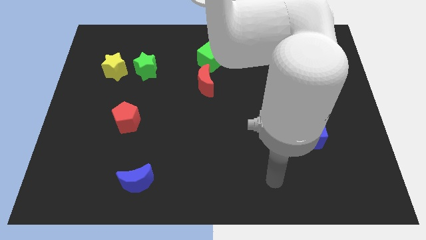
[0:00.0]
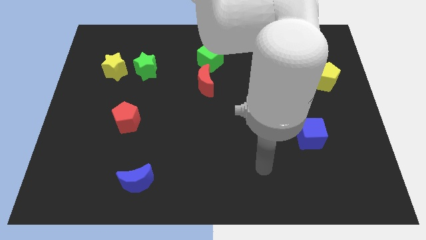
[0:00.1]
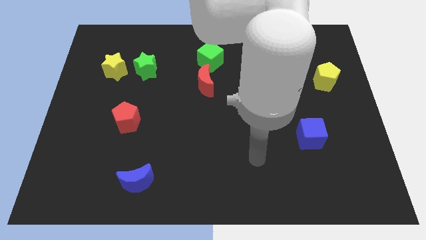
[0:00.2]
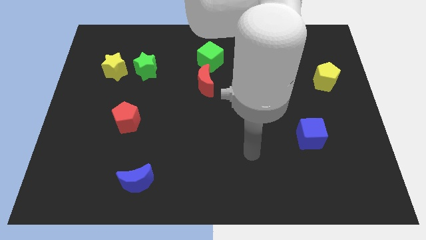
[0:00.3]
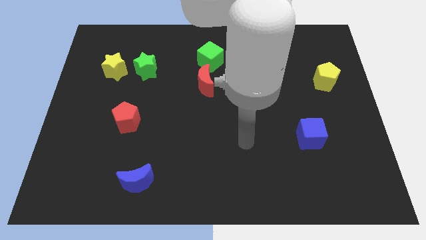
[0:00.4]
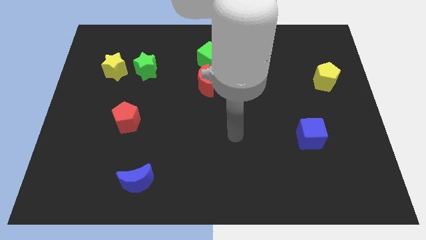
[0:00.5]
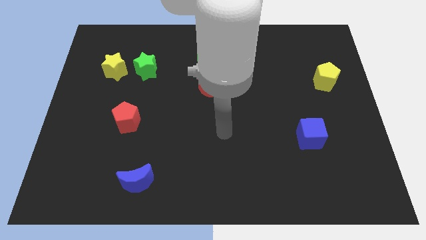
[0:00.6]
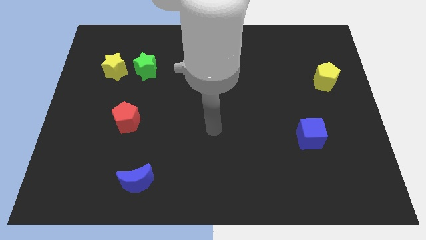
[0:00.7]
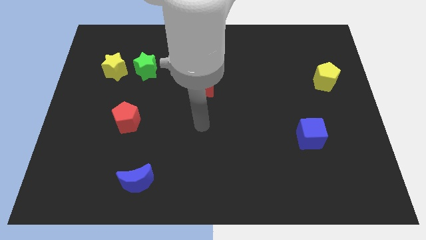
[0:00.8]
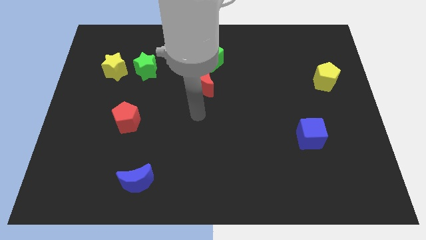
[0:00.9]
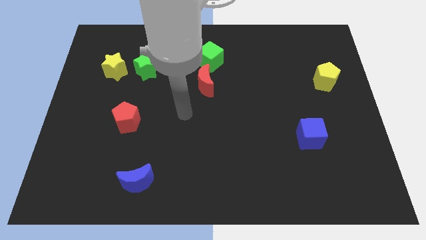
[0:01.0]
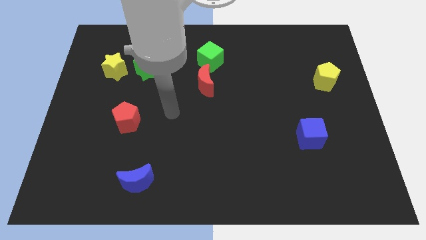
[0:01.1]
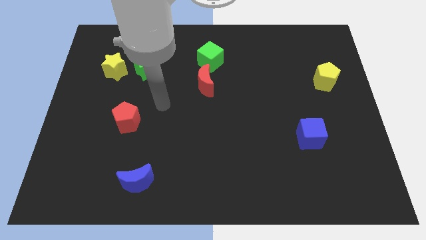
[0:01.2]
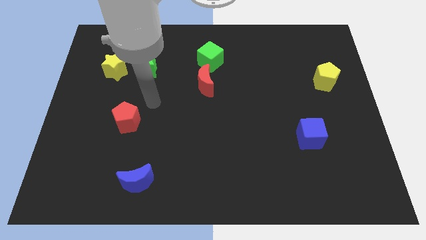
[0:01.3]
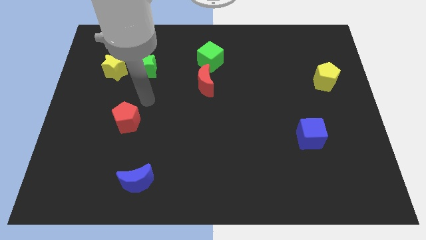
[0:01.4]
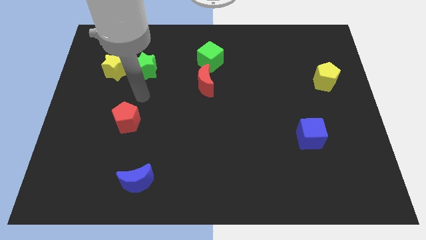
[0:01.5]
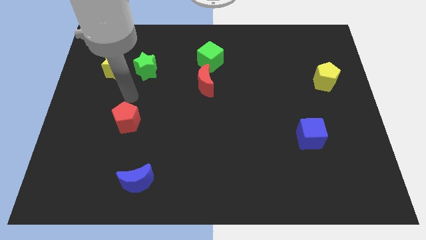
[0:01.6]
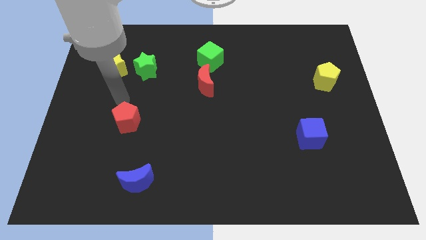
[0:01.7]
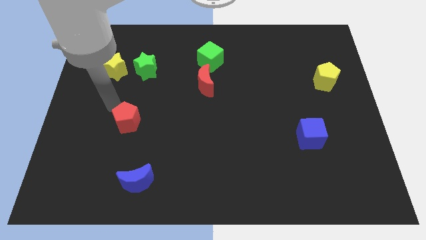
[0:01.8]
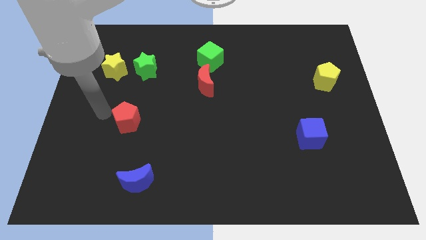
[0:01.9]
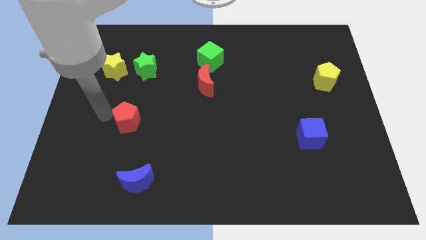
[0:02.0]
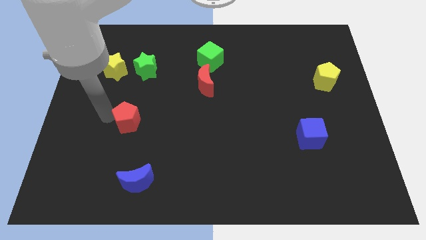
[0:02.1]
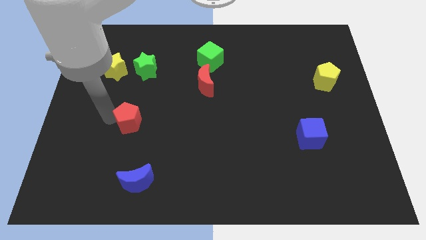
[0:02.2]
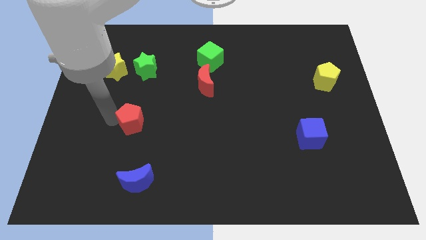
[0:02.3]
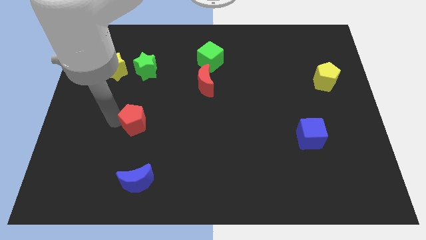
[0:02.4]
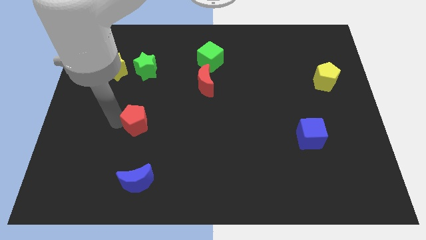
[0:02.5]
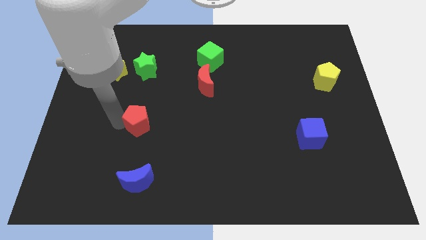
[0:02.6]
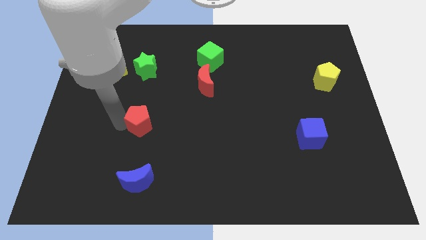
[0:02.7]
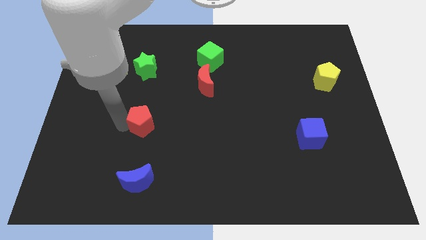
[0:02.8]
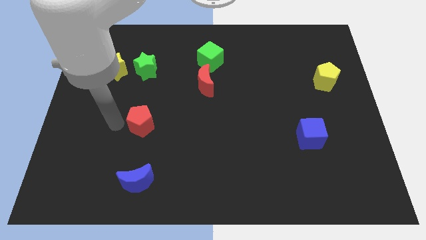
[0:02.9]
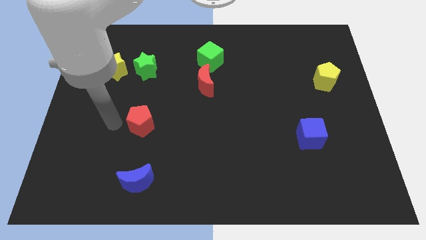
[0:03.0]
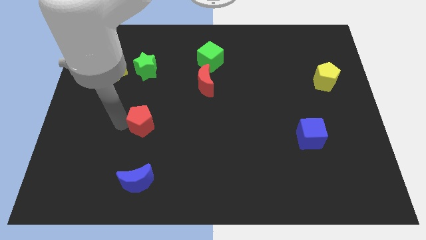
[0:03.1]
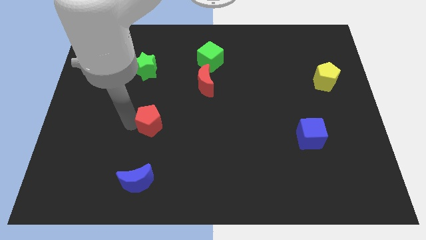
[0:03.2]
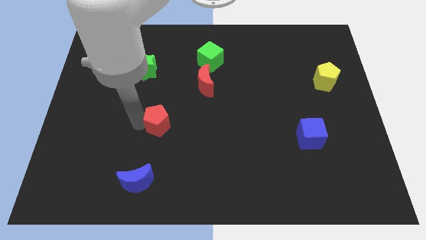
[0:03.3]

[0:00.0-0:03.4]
slightly slide the red pentagon right

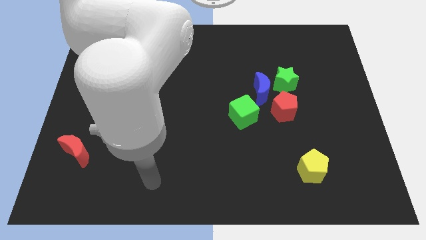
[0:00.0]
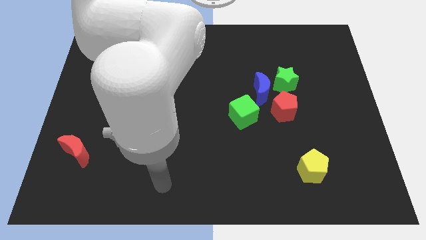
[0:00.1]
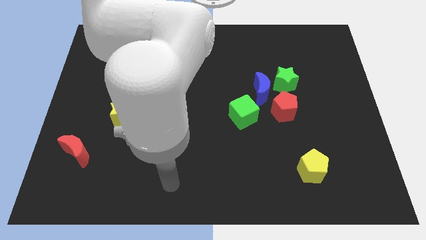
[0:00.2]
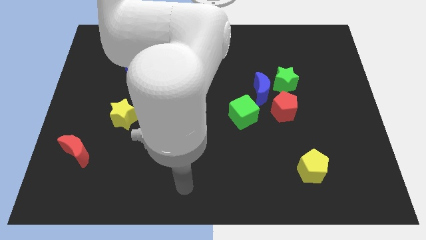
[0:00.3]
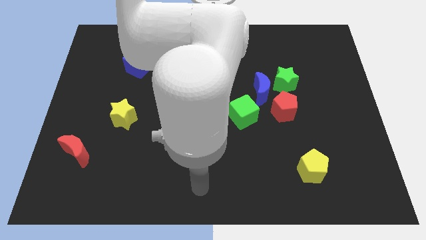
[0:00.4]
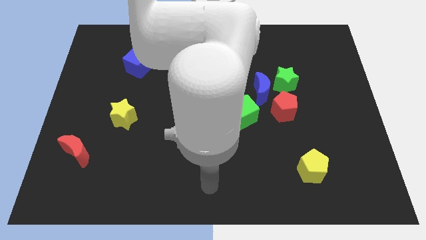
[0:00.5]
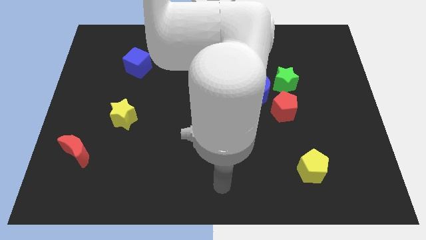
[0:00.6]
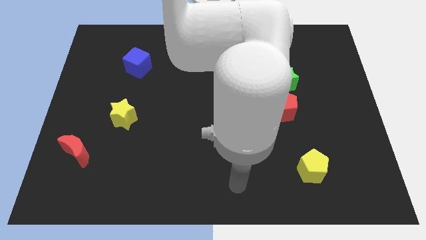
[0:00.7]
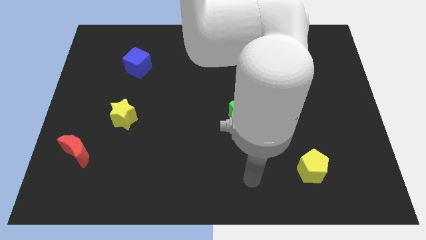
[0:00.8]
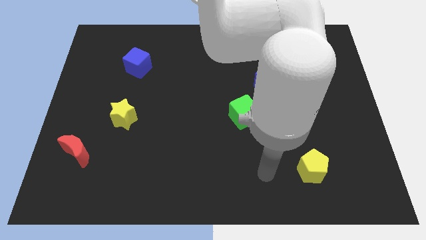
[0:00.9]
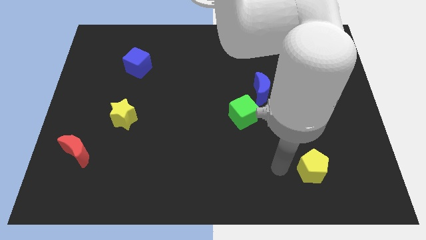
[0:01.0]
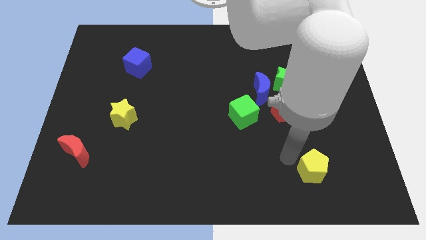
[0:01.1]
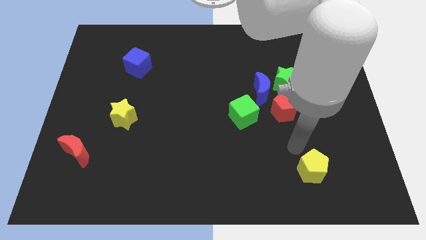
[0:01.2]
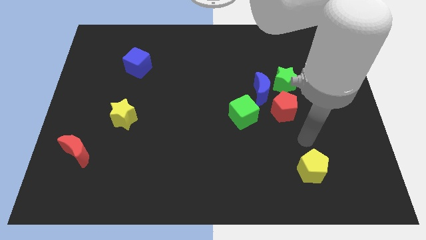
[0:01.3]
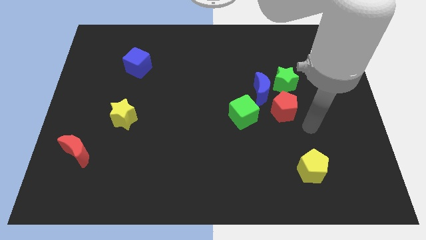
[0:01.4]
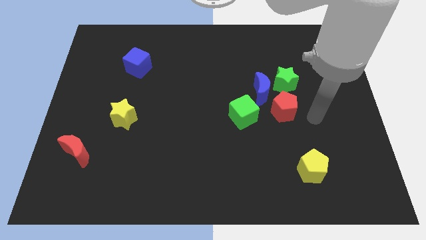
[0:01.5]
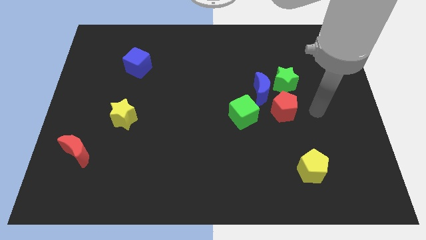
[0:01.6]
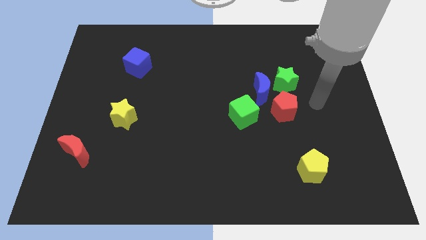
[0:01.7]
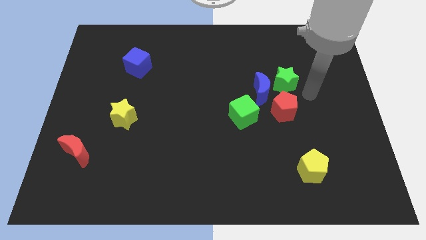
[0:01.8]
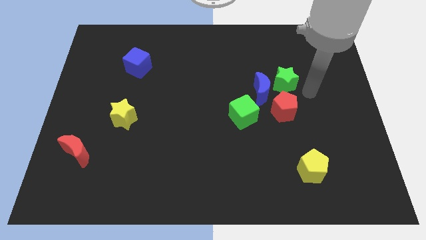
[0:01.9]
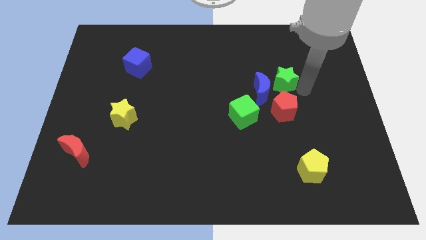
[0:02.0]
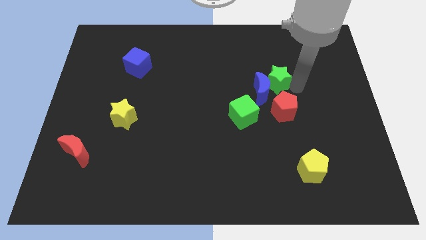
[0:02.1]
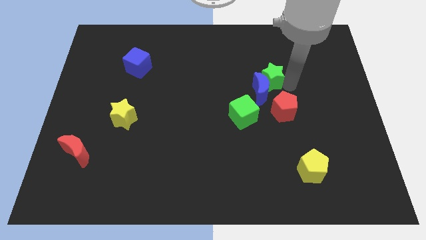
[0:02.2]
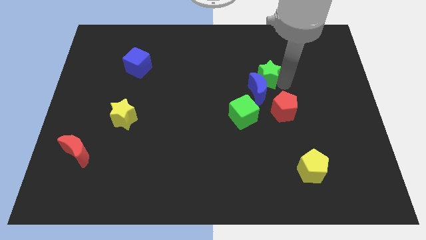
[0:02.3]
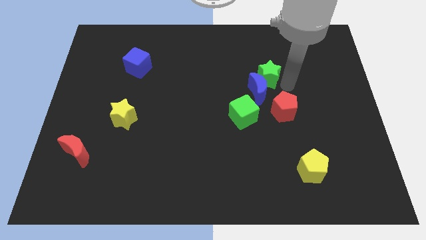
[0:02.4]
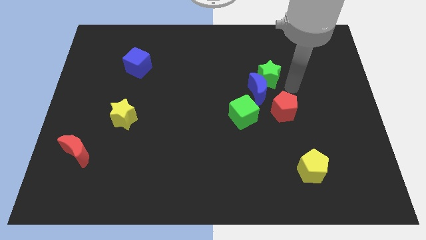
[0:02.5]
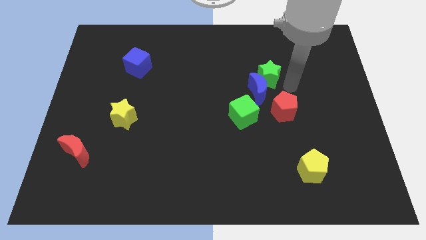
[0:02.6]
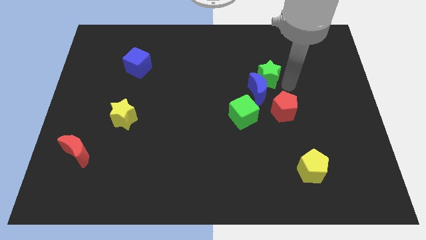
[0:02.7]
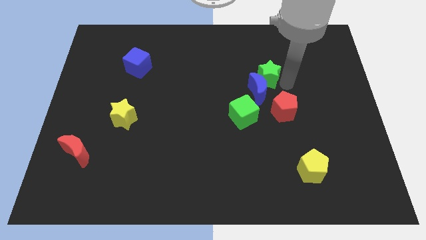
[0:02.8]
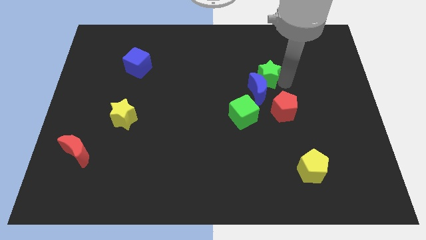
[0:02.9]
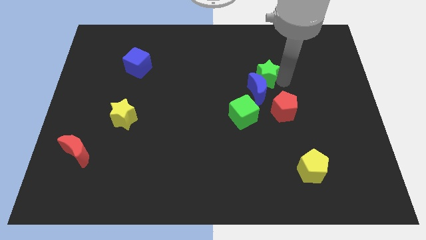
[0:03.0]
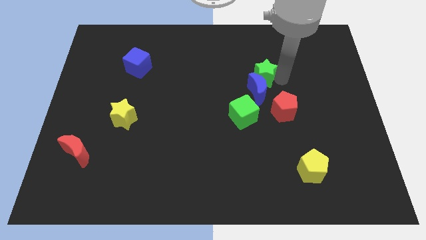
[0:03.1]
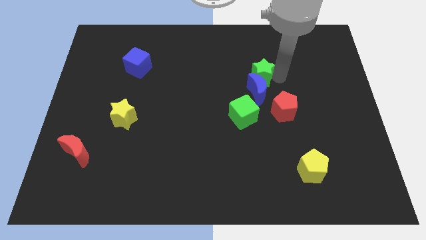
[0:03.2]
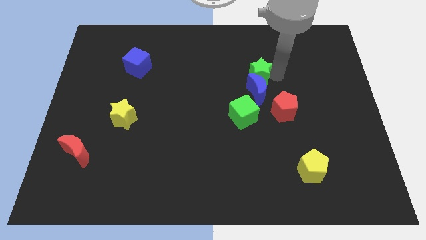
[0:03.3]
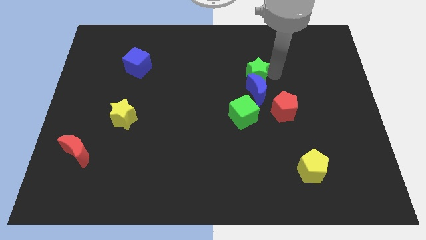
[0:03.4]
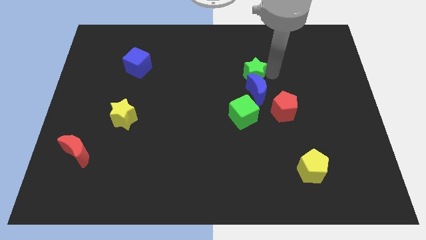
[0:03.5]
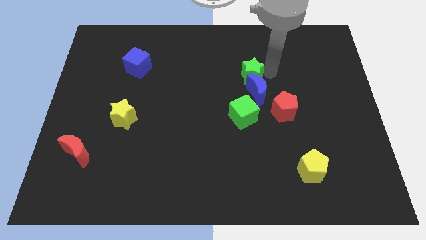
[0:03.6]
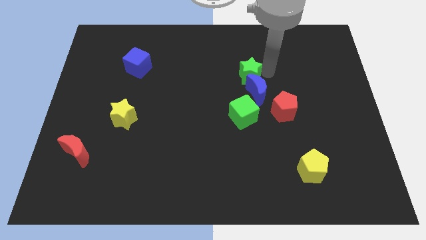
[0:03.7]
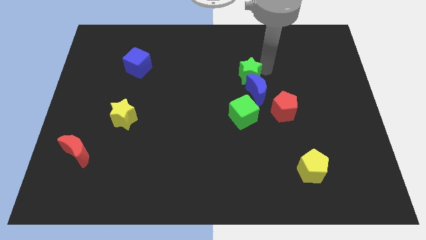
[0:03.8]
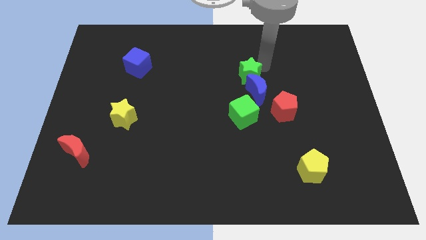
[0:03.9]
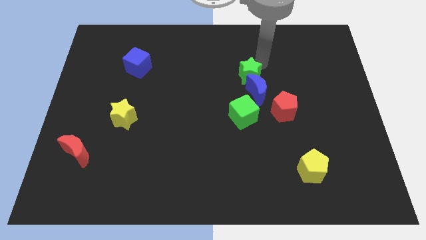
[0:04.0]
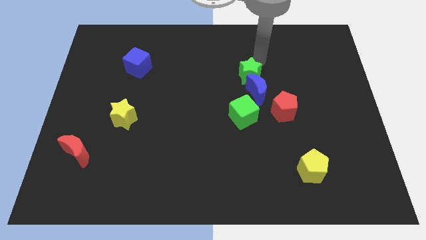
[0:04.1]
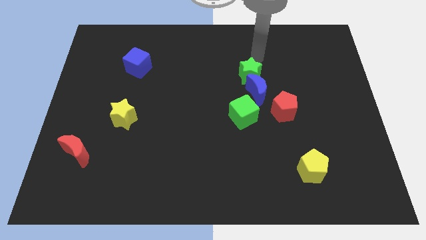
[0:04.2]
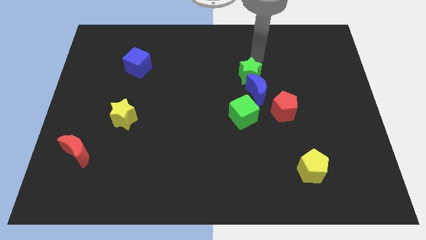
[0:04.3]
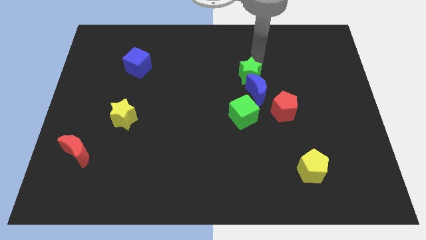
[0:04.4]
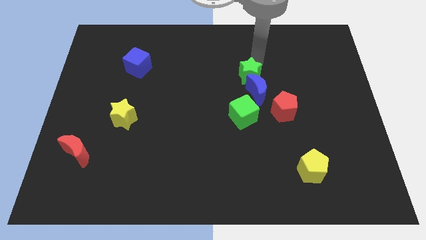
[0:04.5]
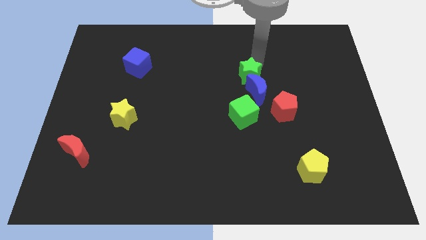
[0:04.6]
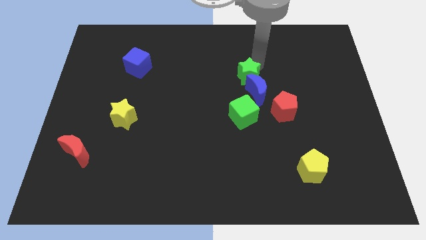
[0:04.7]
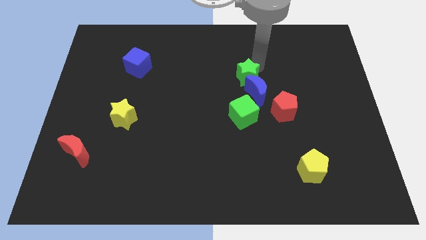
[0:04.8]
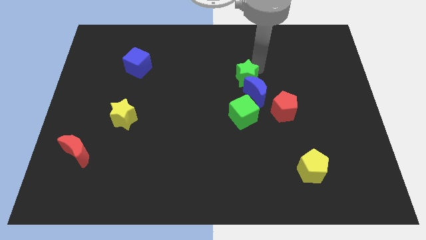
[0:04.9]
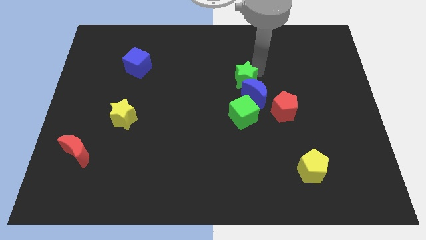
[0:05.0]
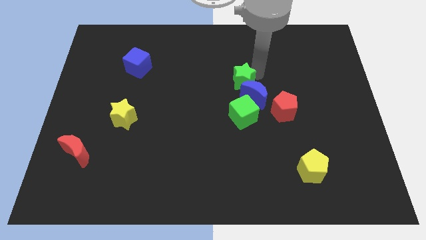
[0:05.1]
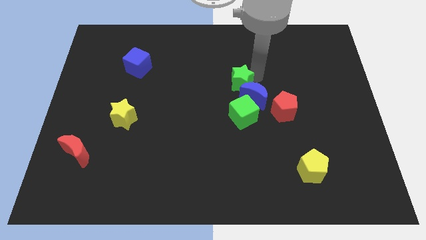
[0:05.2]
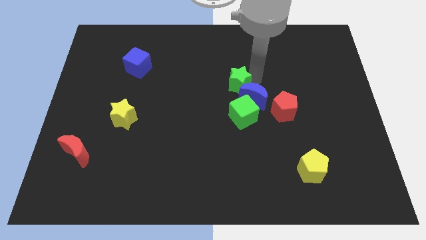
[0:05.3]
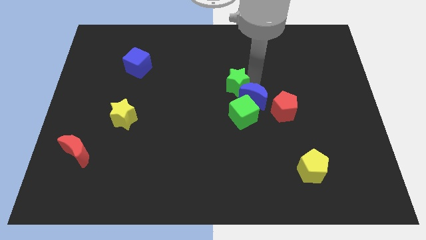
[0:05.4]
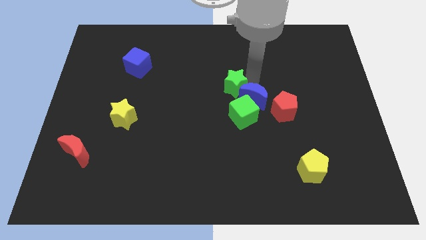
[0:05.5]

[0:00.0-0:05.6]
slightly push the green star diagonally downwards and to the left
